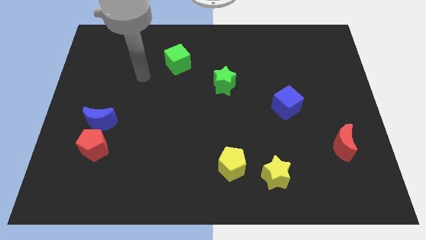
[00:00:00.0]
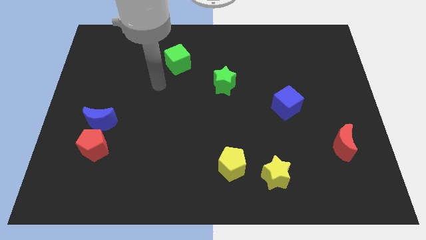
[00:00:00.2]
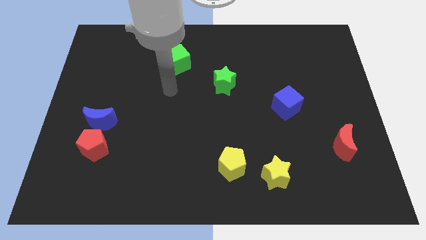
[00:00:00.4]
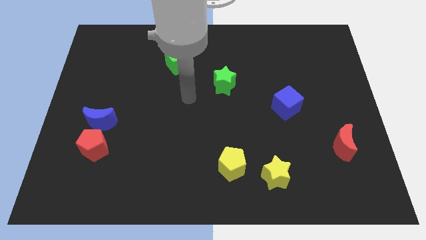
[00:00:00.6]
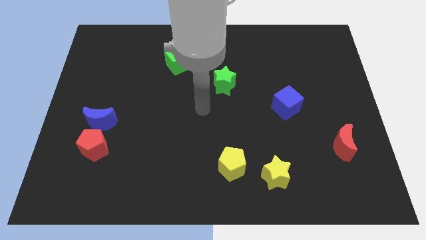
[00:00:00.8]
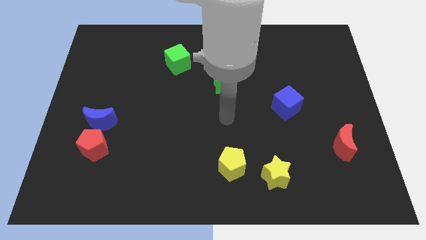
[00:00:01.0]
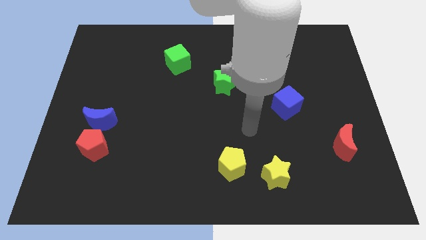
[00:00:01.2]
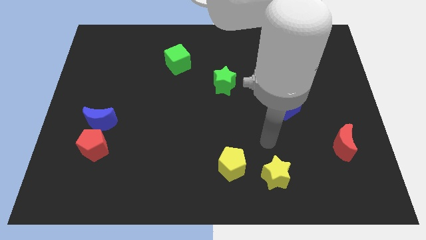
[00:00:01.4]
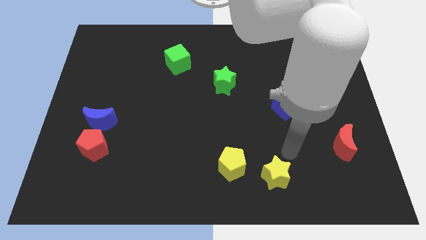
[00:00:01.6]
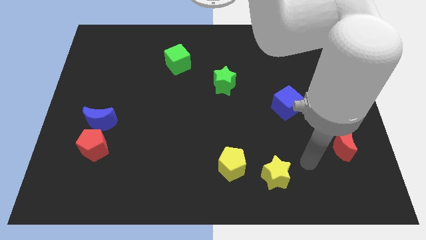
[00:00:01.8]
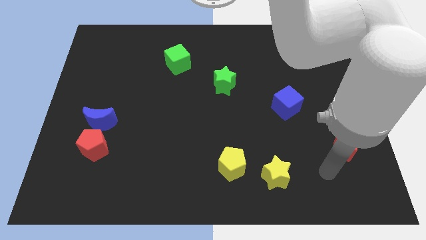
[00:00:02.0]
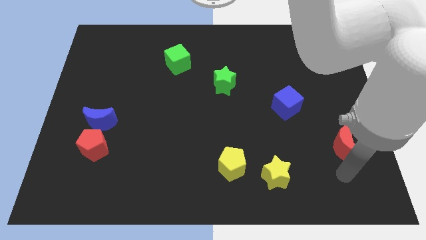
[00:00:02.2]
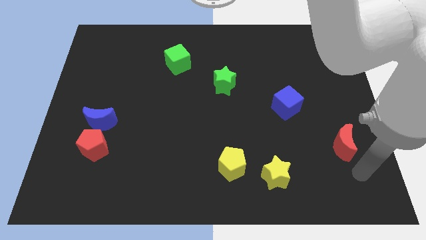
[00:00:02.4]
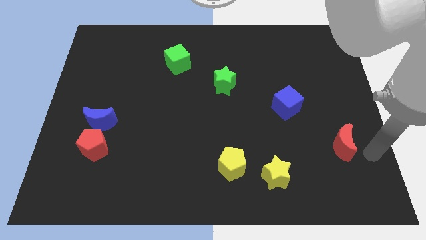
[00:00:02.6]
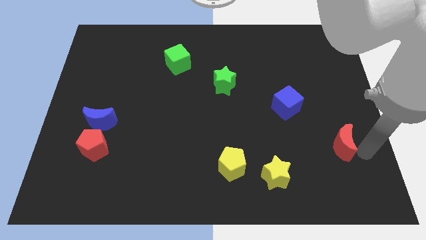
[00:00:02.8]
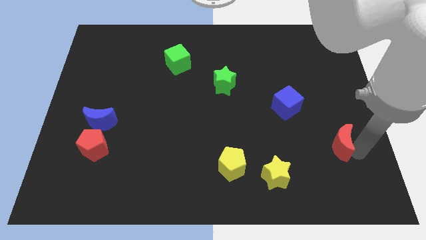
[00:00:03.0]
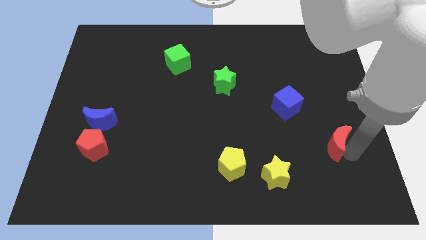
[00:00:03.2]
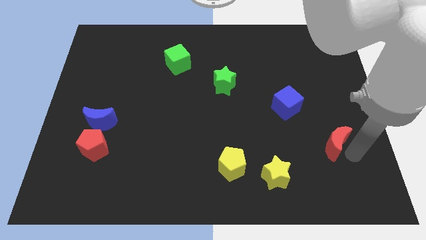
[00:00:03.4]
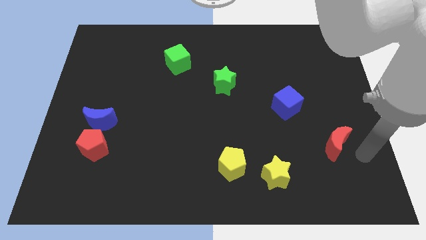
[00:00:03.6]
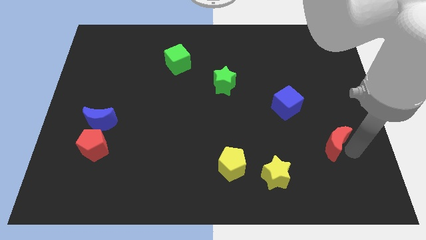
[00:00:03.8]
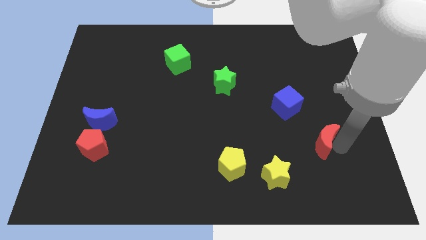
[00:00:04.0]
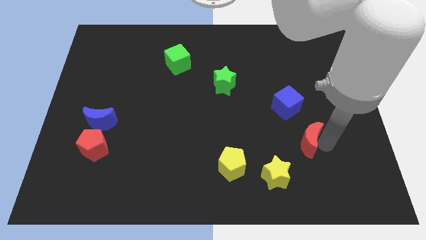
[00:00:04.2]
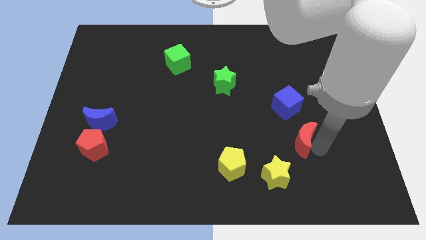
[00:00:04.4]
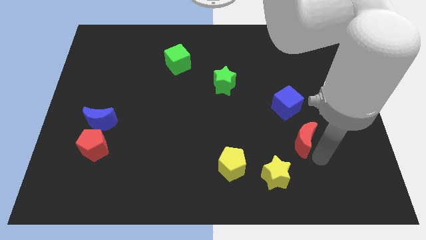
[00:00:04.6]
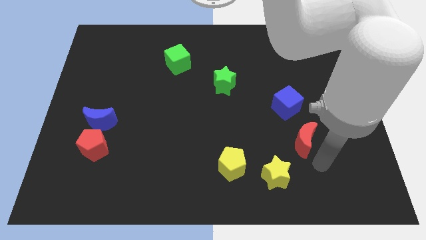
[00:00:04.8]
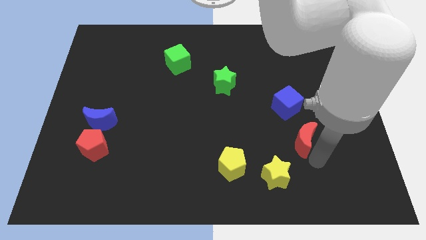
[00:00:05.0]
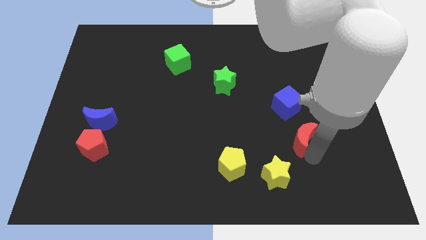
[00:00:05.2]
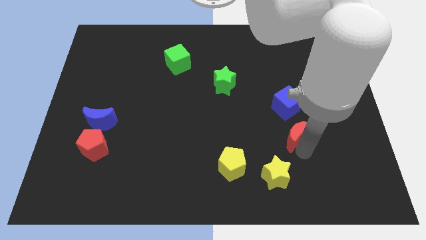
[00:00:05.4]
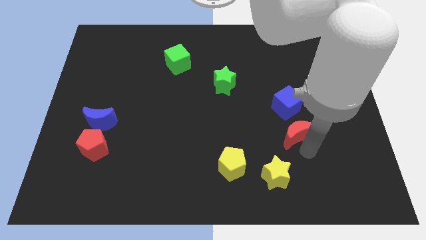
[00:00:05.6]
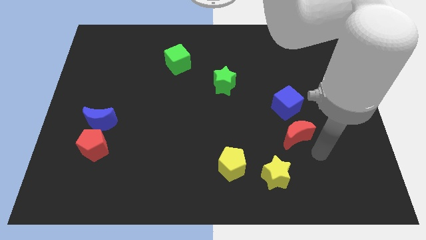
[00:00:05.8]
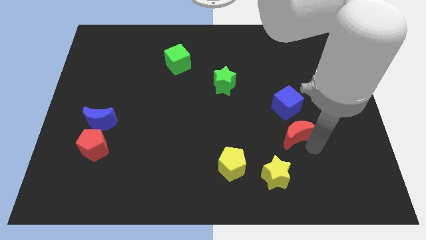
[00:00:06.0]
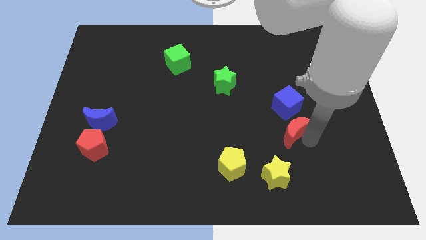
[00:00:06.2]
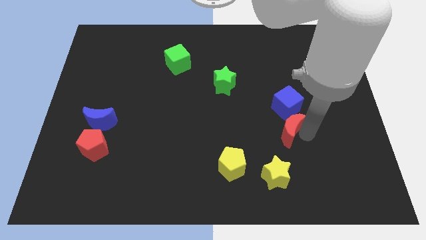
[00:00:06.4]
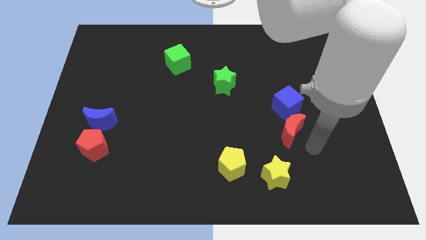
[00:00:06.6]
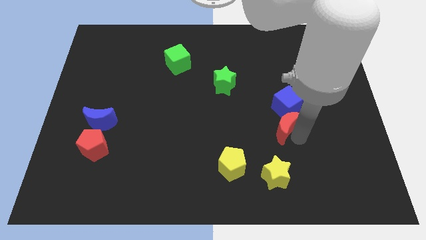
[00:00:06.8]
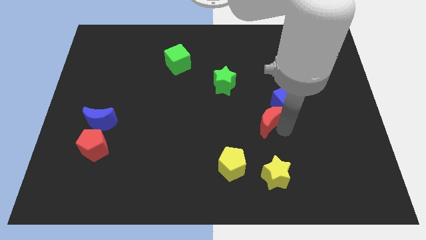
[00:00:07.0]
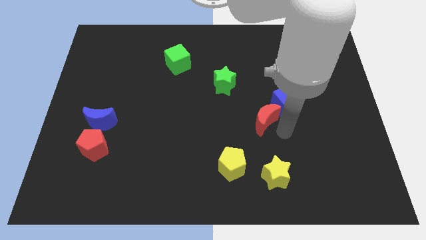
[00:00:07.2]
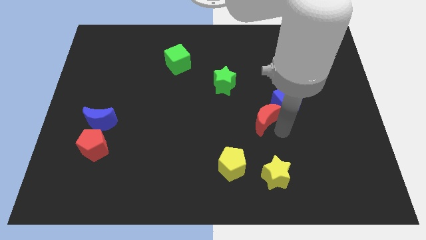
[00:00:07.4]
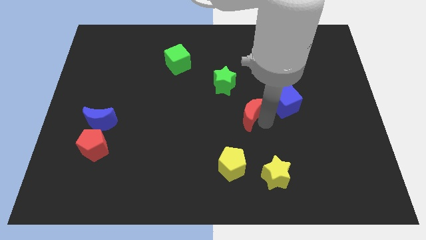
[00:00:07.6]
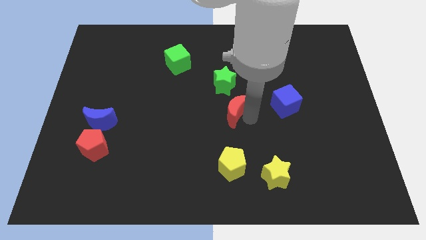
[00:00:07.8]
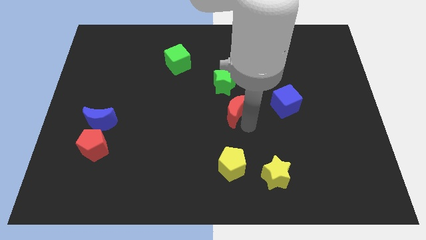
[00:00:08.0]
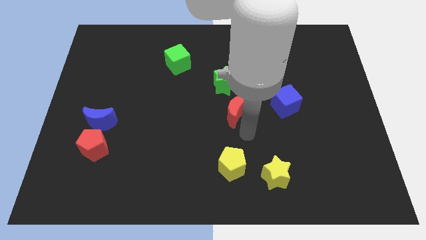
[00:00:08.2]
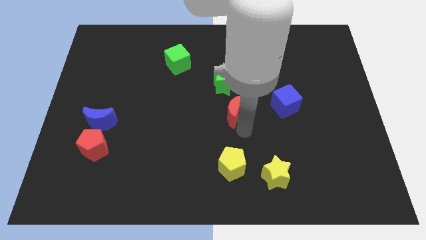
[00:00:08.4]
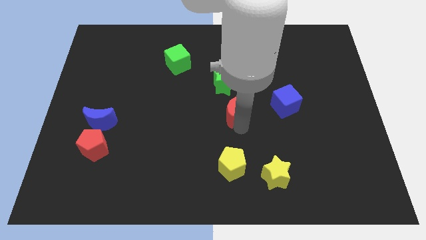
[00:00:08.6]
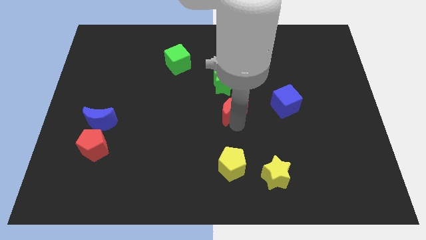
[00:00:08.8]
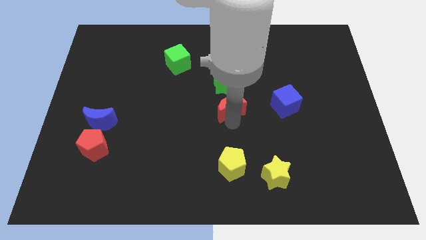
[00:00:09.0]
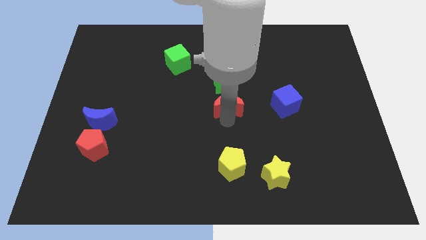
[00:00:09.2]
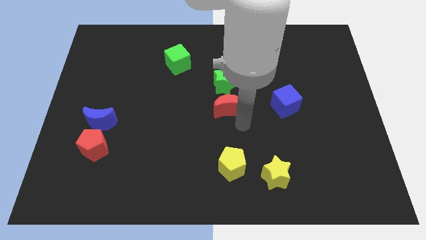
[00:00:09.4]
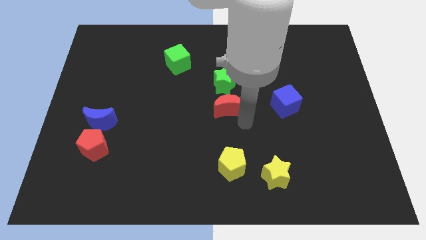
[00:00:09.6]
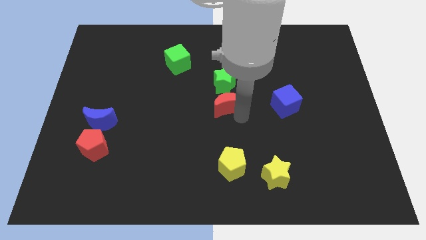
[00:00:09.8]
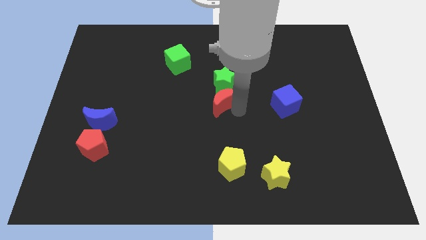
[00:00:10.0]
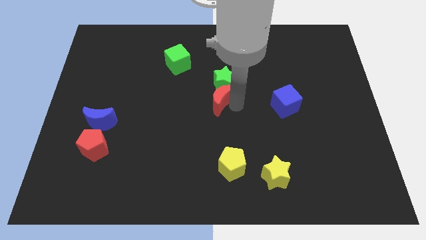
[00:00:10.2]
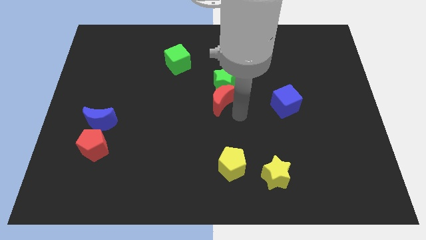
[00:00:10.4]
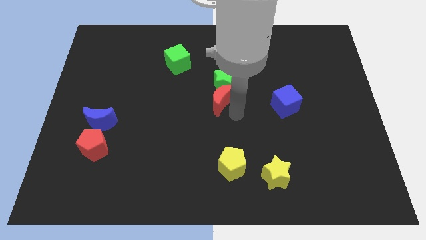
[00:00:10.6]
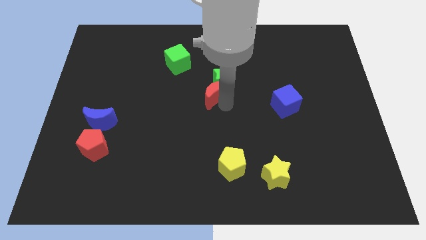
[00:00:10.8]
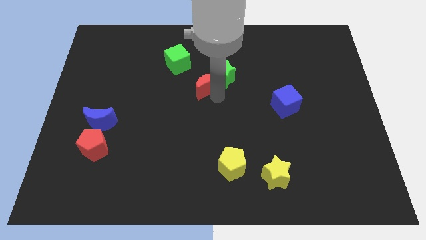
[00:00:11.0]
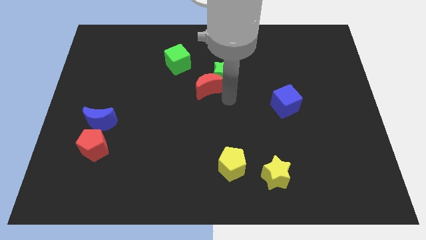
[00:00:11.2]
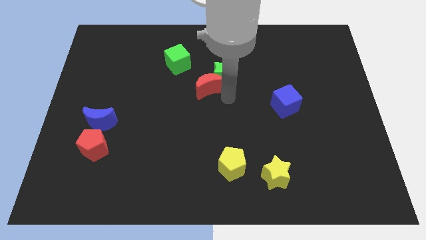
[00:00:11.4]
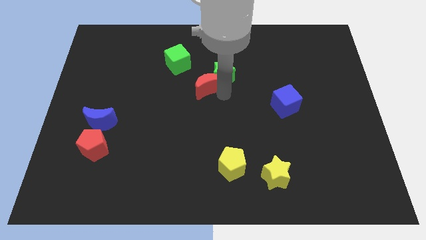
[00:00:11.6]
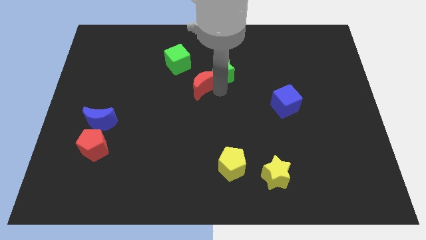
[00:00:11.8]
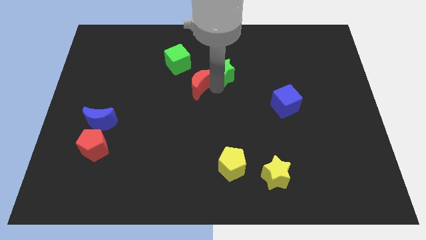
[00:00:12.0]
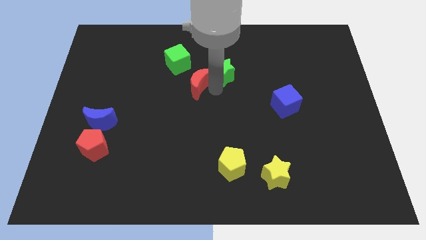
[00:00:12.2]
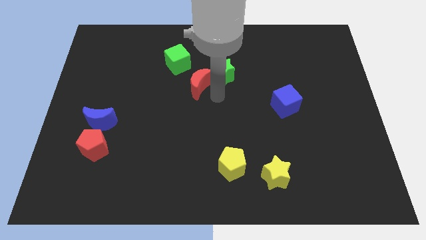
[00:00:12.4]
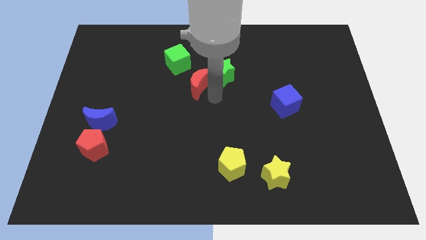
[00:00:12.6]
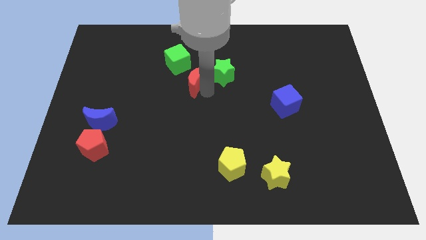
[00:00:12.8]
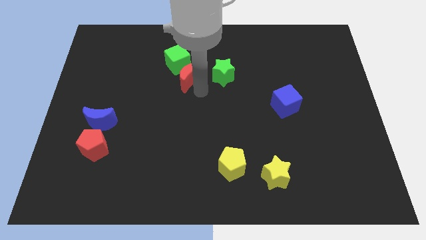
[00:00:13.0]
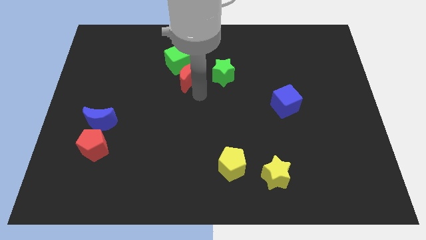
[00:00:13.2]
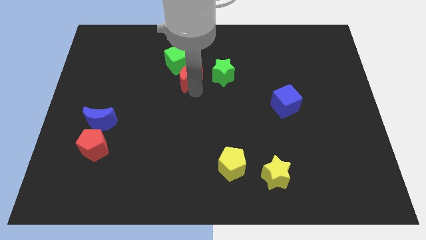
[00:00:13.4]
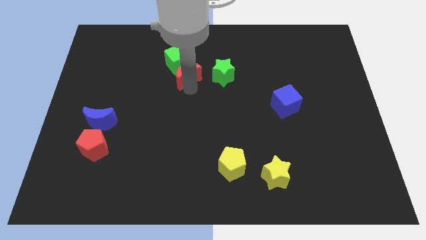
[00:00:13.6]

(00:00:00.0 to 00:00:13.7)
slide the red moon towards the green cube
